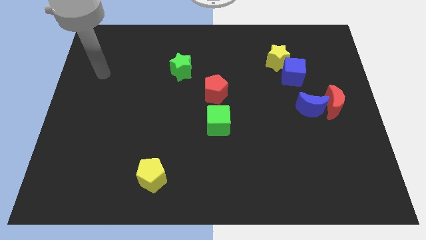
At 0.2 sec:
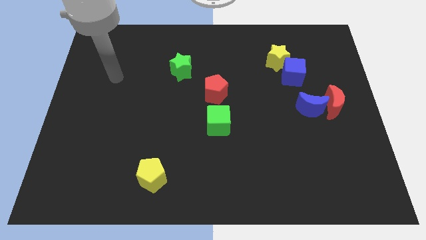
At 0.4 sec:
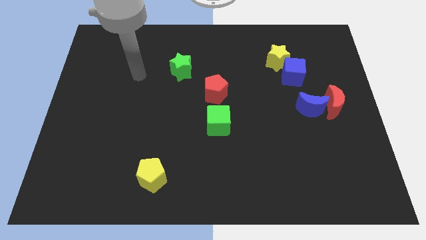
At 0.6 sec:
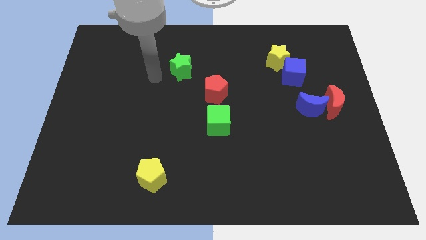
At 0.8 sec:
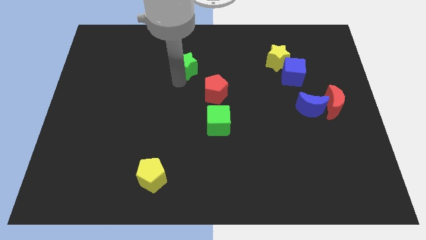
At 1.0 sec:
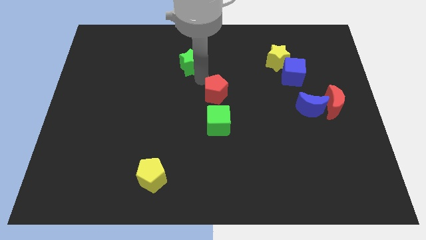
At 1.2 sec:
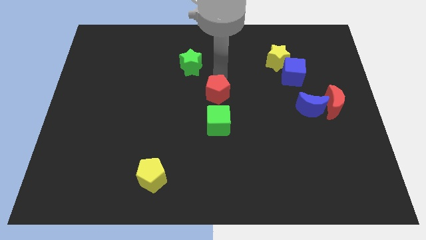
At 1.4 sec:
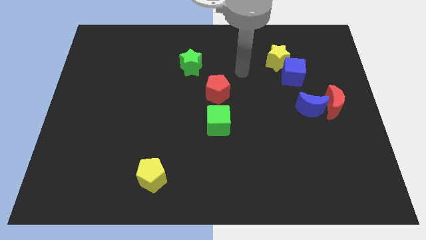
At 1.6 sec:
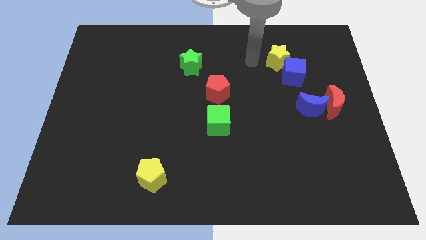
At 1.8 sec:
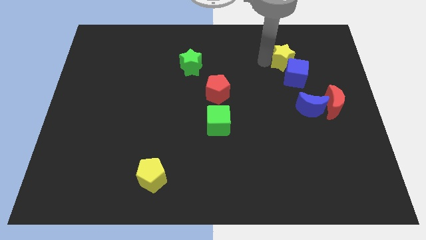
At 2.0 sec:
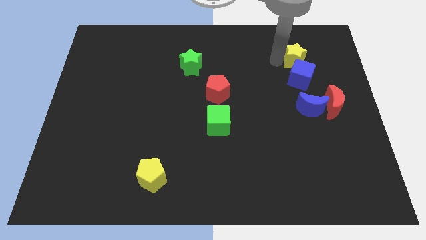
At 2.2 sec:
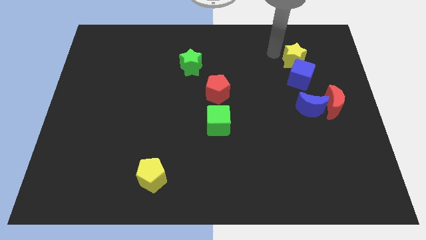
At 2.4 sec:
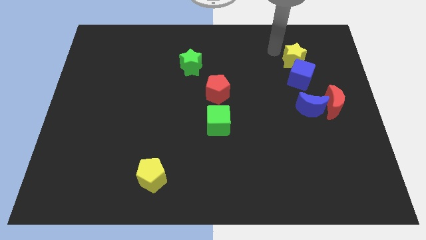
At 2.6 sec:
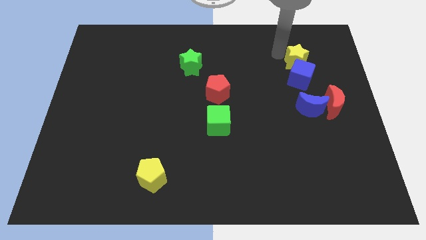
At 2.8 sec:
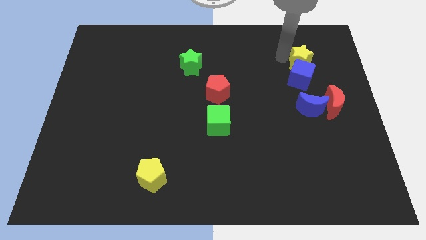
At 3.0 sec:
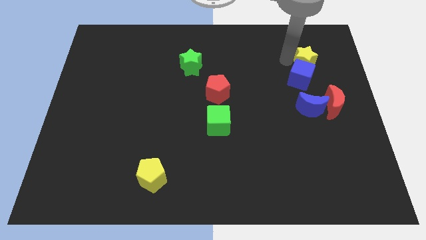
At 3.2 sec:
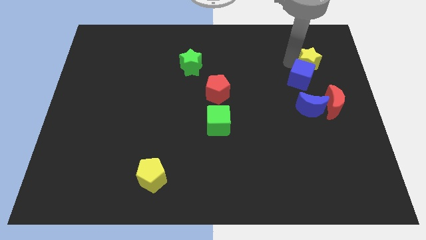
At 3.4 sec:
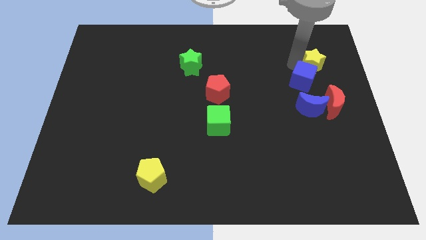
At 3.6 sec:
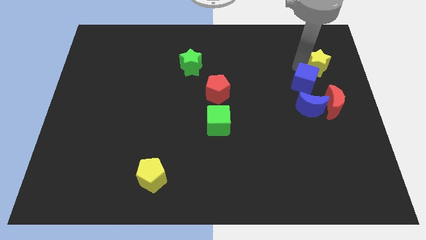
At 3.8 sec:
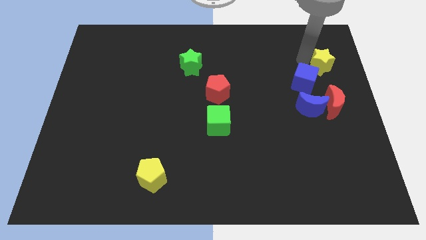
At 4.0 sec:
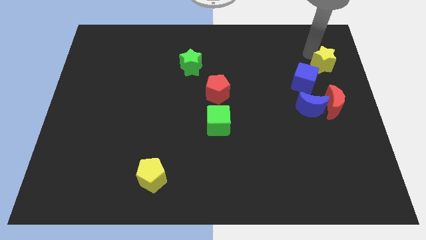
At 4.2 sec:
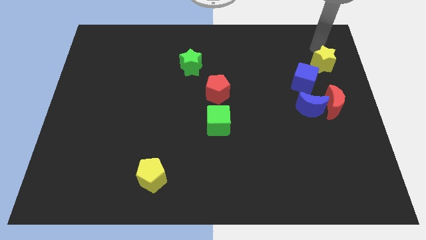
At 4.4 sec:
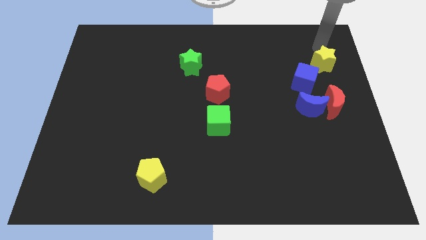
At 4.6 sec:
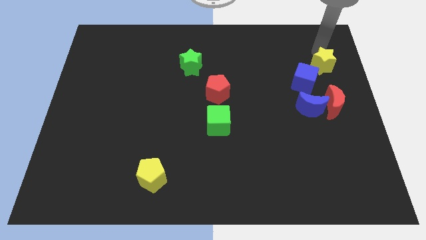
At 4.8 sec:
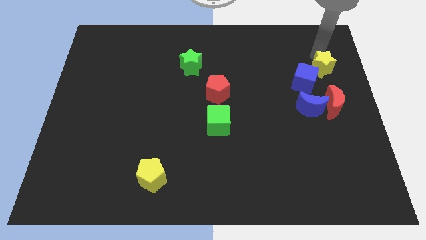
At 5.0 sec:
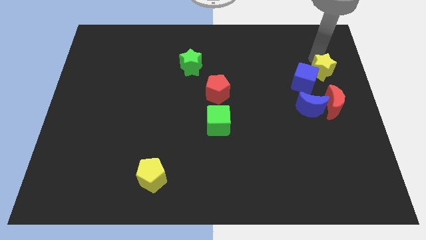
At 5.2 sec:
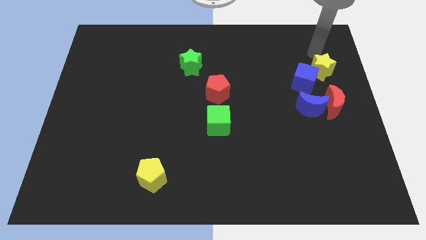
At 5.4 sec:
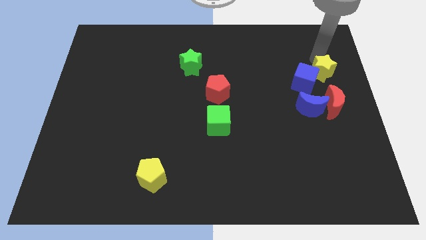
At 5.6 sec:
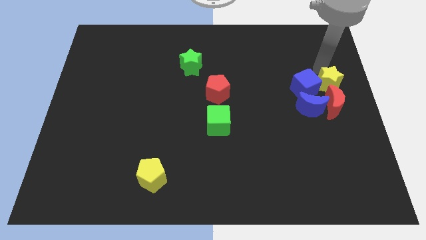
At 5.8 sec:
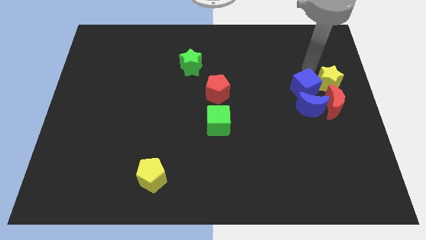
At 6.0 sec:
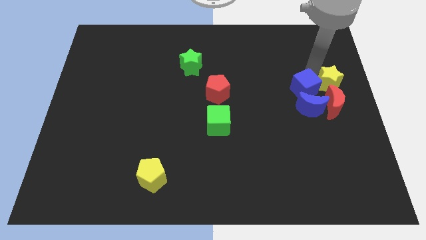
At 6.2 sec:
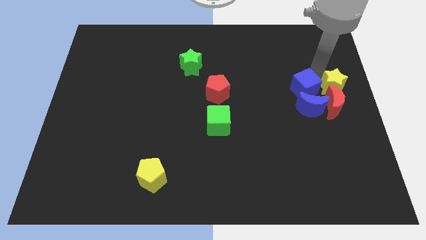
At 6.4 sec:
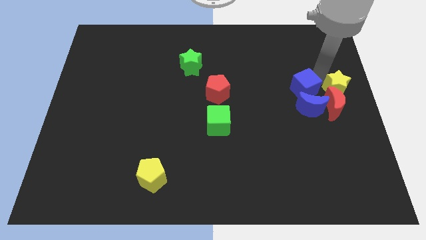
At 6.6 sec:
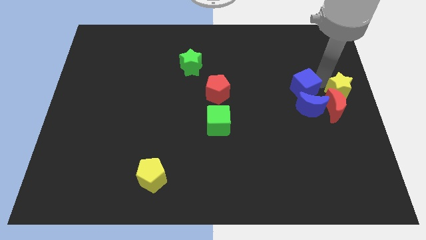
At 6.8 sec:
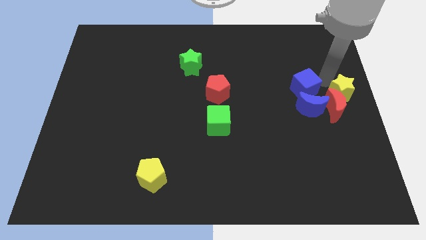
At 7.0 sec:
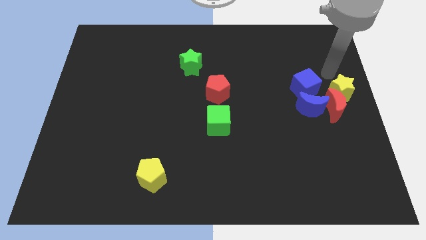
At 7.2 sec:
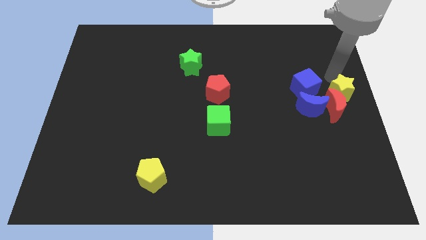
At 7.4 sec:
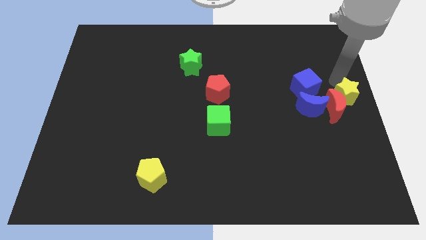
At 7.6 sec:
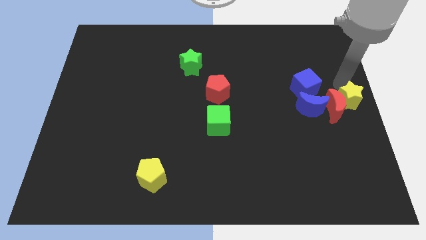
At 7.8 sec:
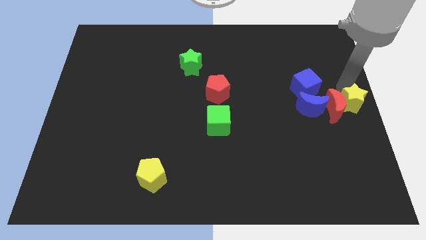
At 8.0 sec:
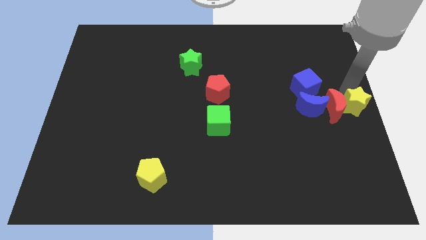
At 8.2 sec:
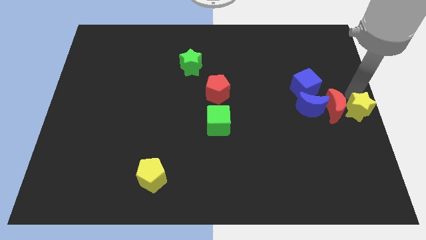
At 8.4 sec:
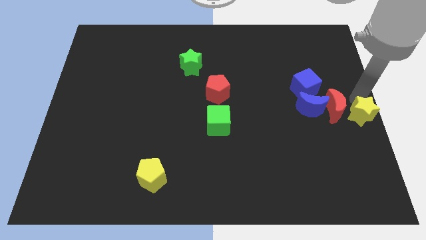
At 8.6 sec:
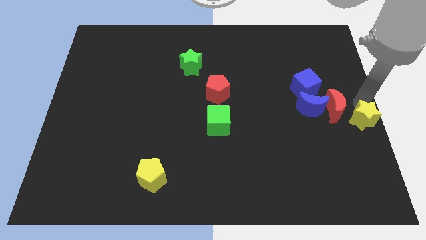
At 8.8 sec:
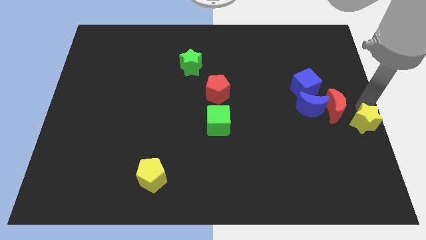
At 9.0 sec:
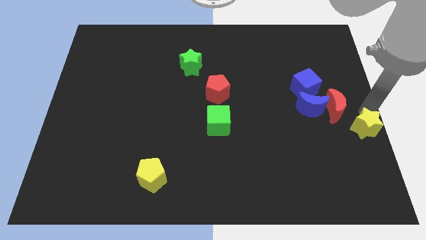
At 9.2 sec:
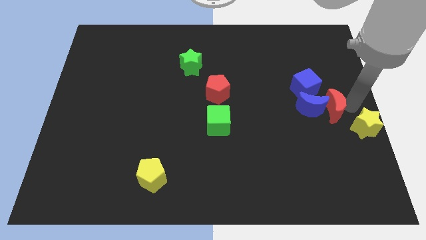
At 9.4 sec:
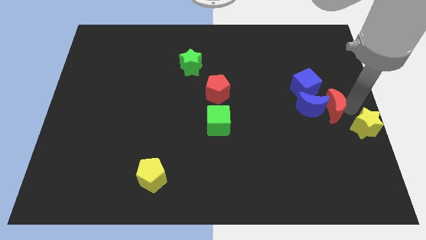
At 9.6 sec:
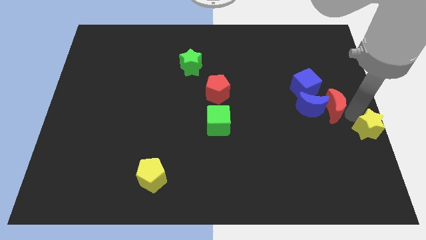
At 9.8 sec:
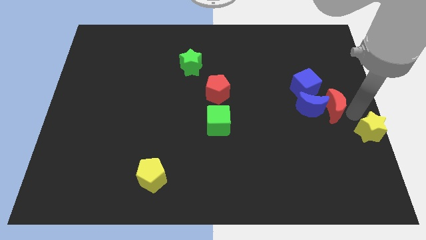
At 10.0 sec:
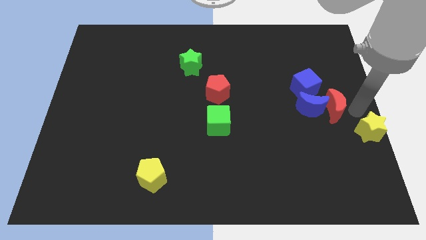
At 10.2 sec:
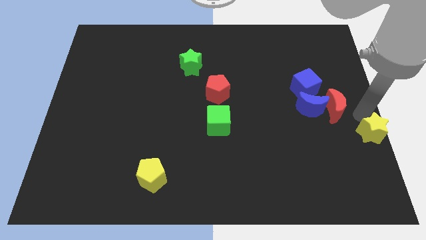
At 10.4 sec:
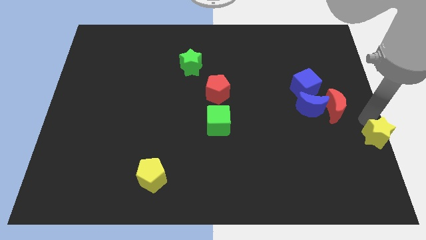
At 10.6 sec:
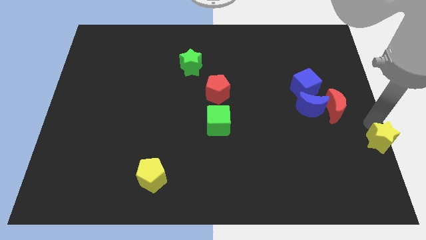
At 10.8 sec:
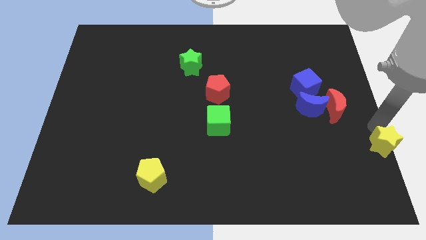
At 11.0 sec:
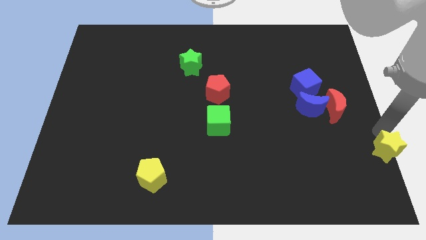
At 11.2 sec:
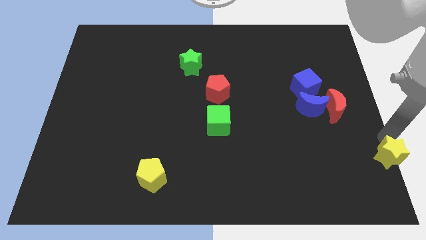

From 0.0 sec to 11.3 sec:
move the yellow star to the lower right corner

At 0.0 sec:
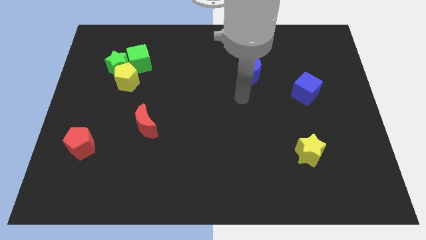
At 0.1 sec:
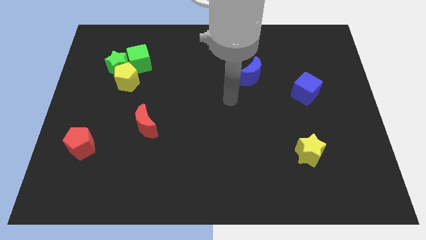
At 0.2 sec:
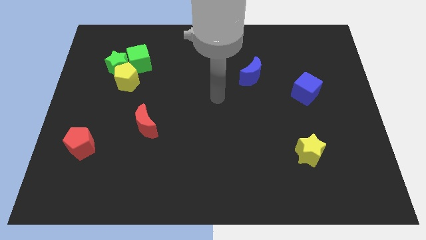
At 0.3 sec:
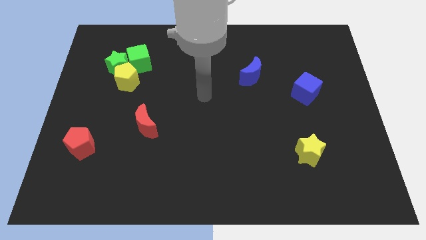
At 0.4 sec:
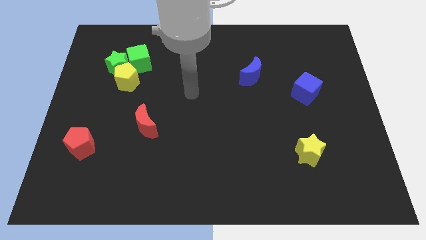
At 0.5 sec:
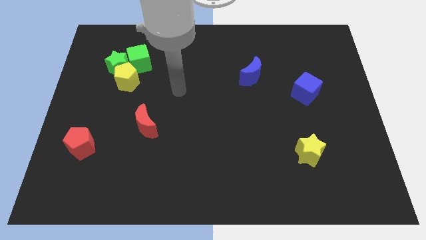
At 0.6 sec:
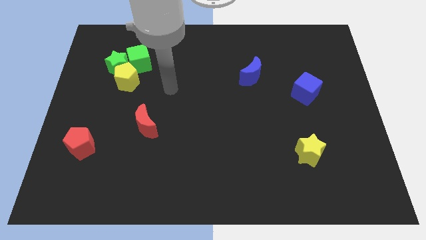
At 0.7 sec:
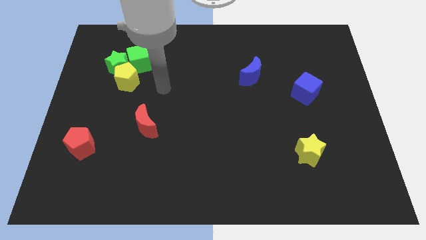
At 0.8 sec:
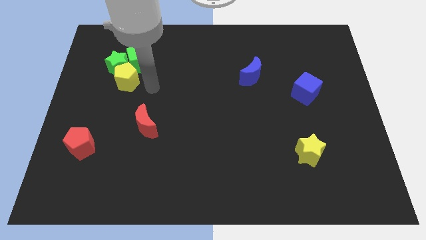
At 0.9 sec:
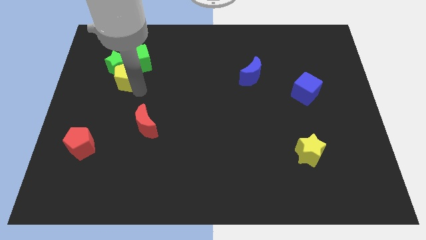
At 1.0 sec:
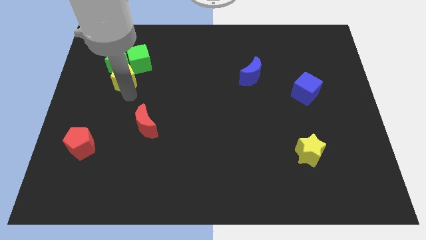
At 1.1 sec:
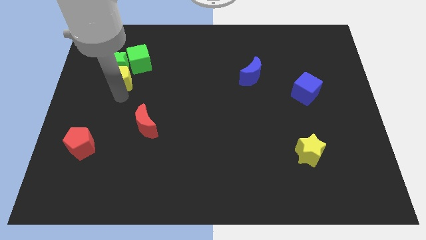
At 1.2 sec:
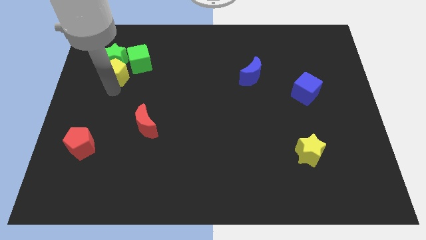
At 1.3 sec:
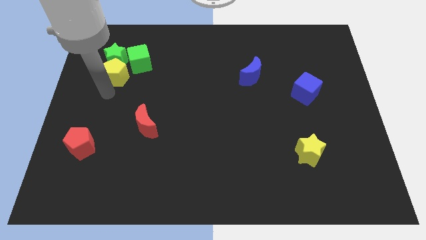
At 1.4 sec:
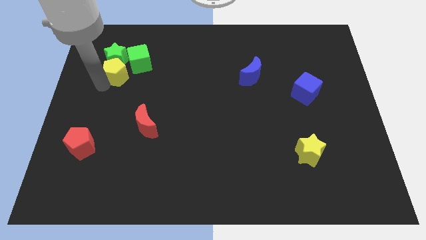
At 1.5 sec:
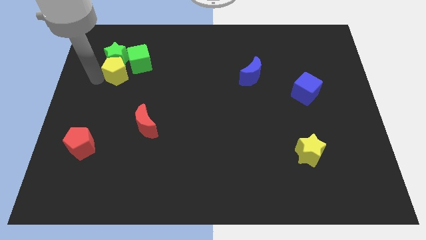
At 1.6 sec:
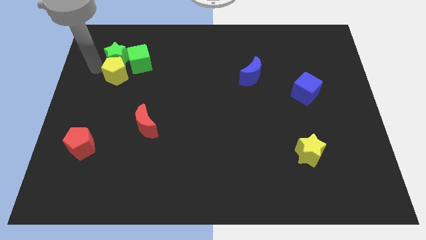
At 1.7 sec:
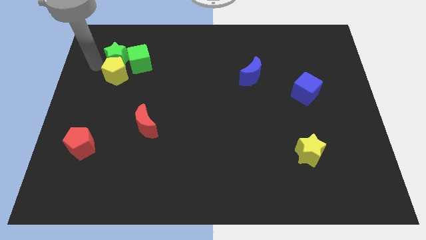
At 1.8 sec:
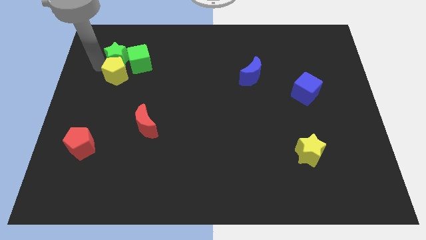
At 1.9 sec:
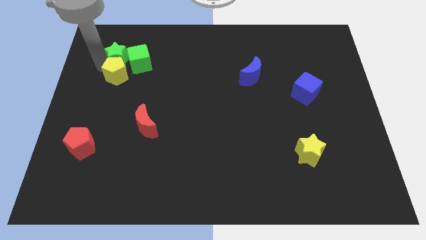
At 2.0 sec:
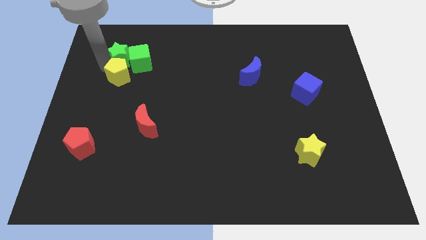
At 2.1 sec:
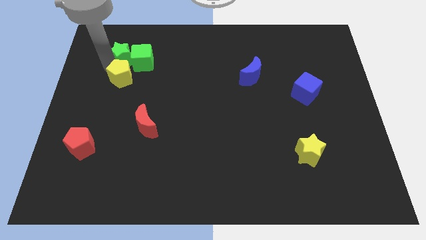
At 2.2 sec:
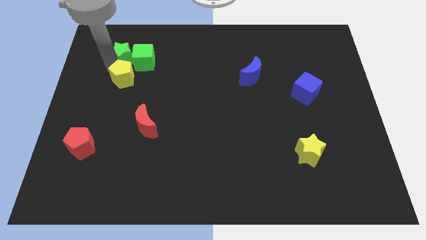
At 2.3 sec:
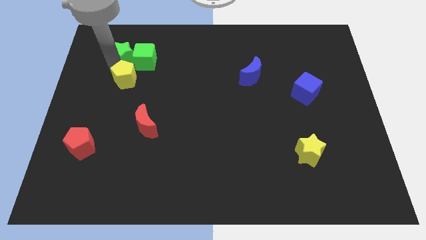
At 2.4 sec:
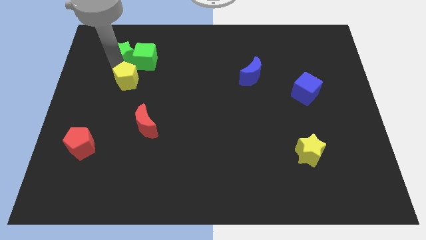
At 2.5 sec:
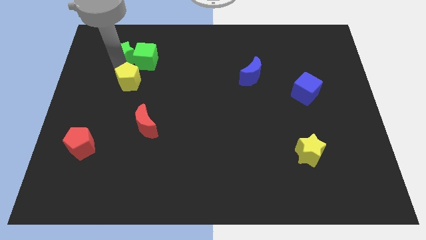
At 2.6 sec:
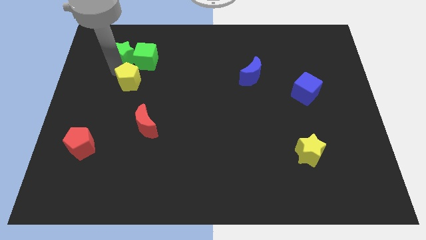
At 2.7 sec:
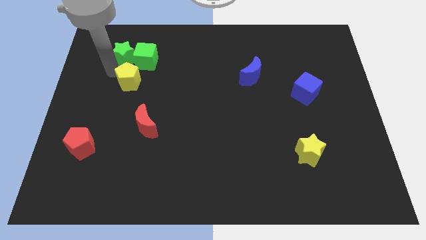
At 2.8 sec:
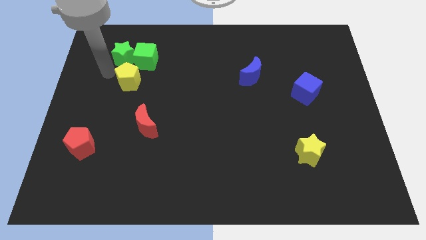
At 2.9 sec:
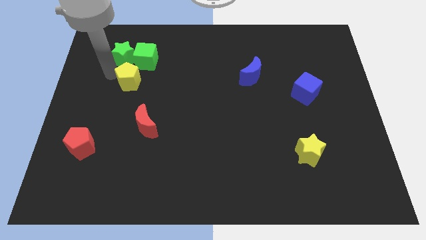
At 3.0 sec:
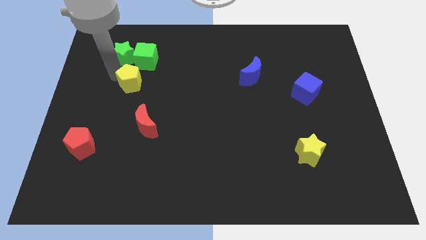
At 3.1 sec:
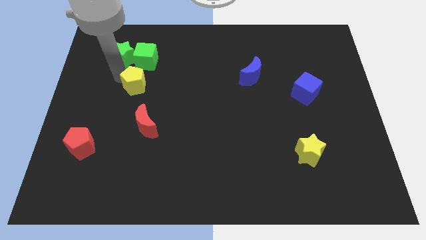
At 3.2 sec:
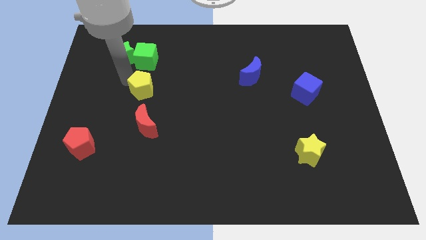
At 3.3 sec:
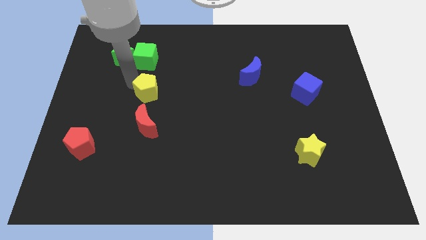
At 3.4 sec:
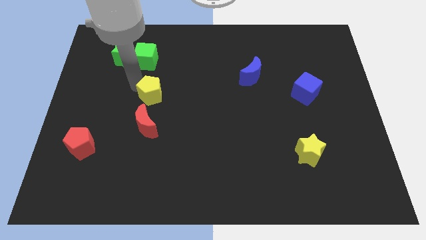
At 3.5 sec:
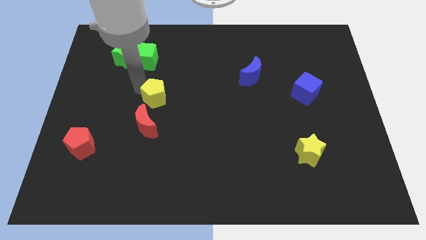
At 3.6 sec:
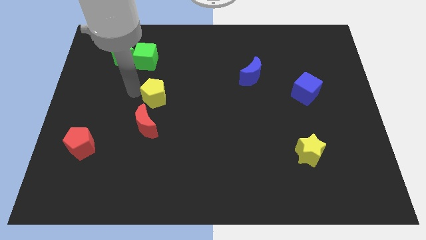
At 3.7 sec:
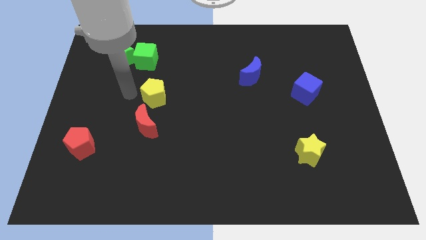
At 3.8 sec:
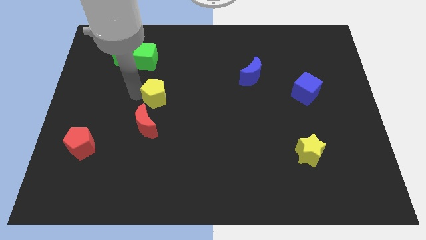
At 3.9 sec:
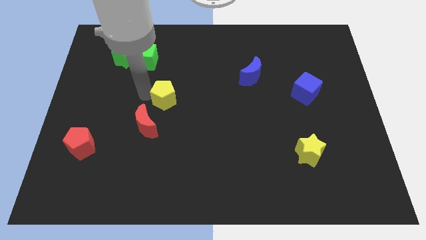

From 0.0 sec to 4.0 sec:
slide the yellow pentagon to the middle
